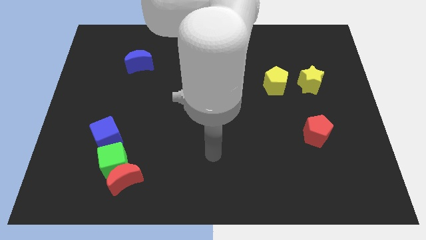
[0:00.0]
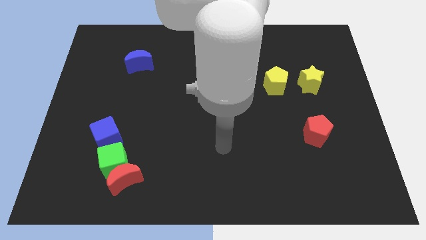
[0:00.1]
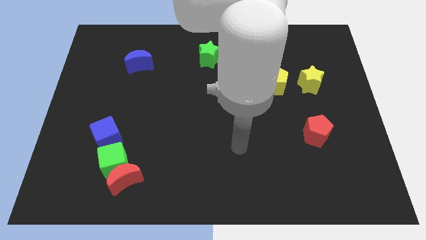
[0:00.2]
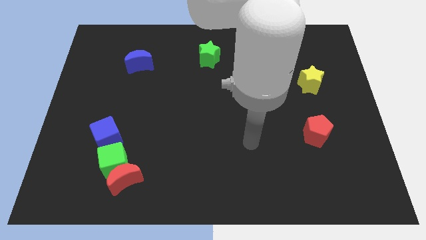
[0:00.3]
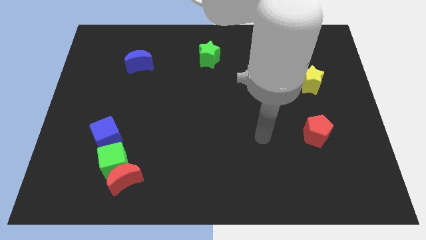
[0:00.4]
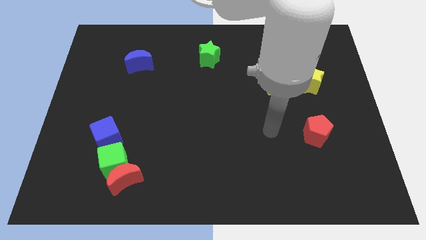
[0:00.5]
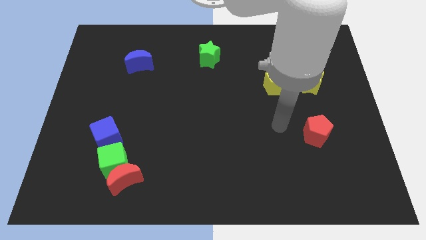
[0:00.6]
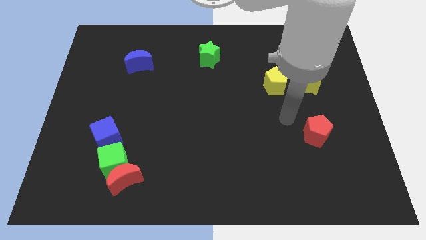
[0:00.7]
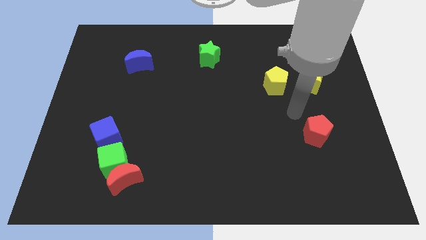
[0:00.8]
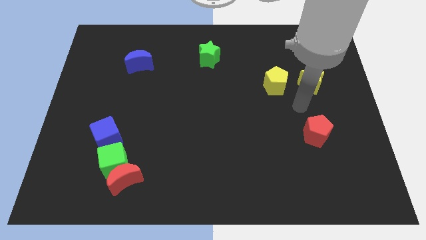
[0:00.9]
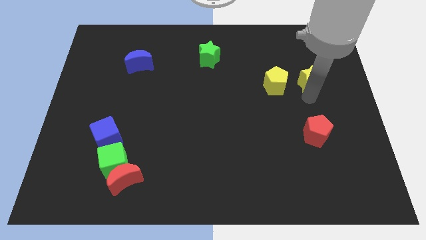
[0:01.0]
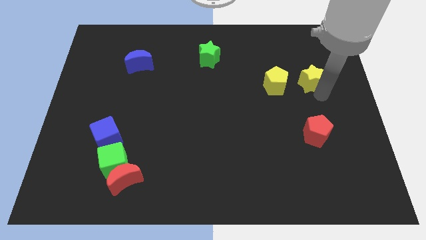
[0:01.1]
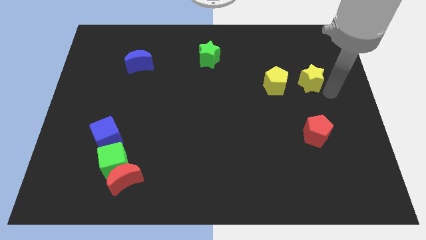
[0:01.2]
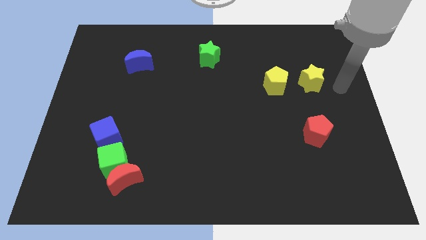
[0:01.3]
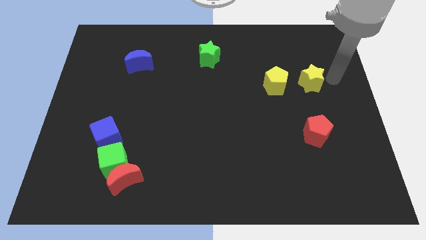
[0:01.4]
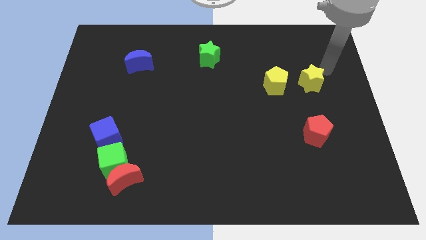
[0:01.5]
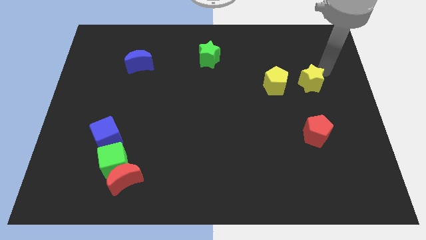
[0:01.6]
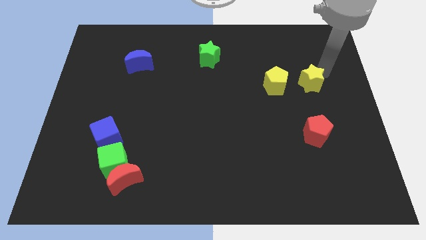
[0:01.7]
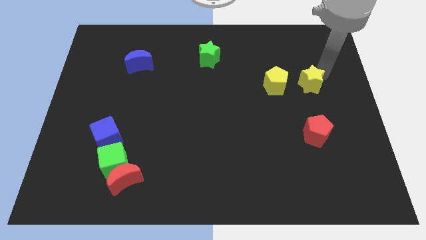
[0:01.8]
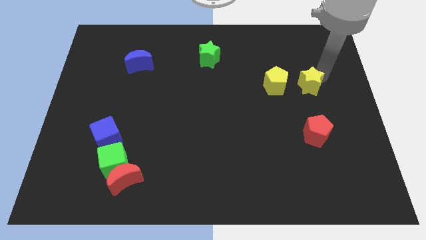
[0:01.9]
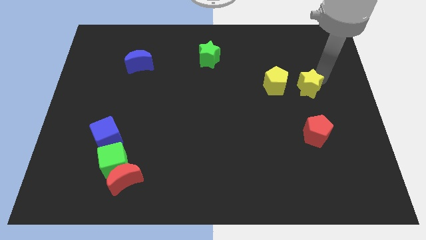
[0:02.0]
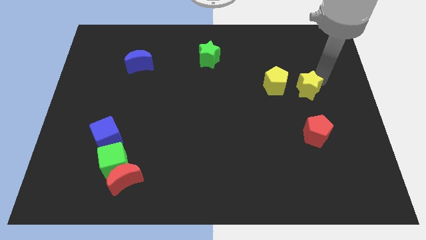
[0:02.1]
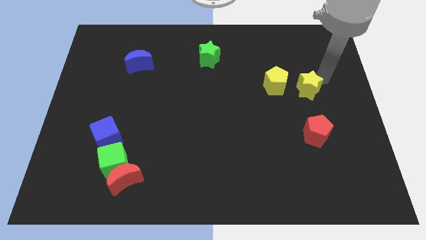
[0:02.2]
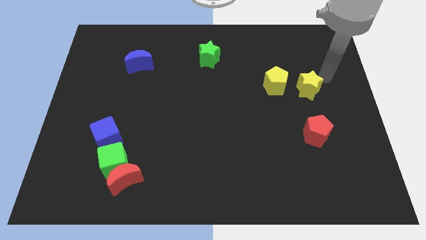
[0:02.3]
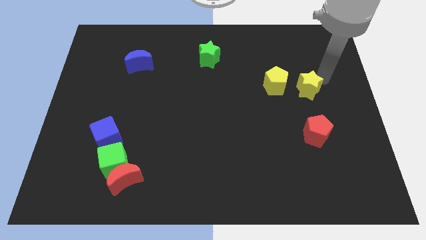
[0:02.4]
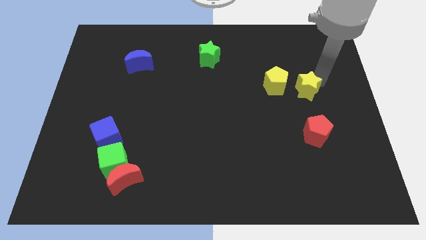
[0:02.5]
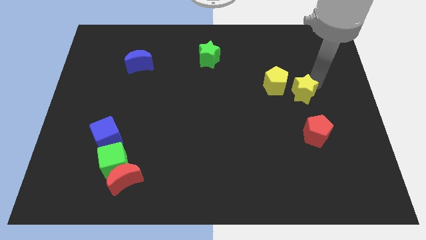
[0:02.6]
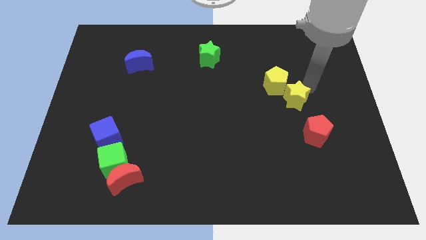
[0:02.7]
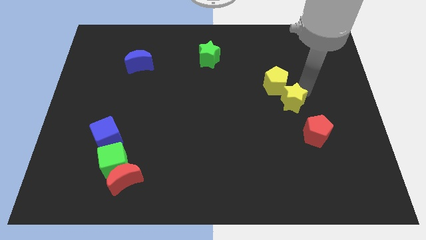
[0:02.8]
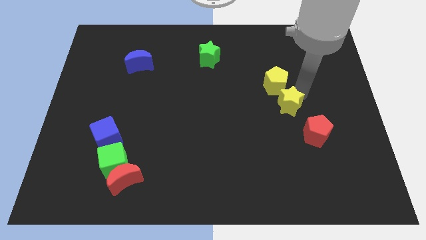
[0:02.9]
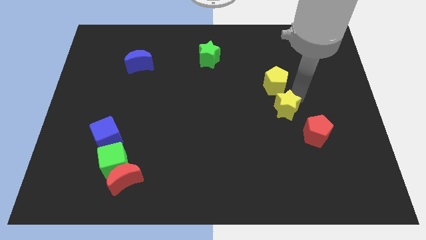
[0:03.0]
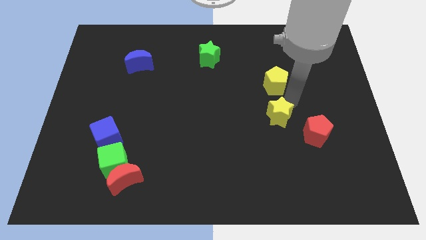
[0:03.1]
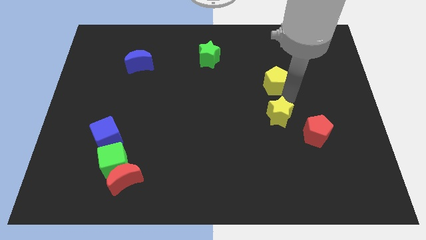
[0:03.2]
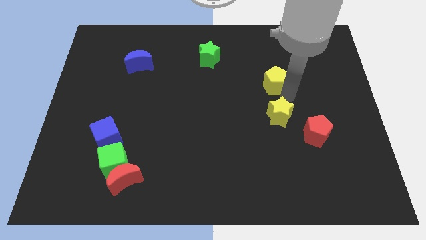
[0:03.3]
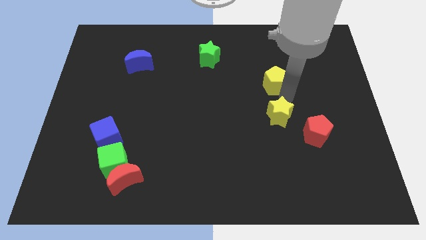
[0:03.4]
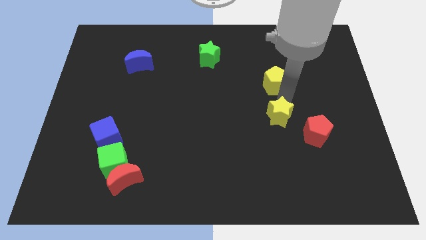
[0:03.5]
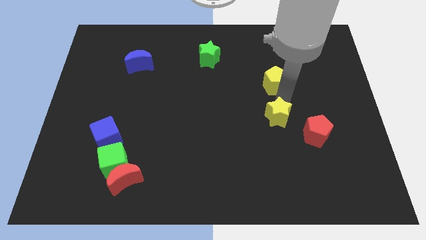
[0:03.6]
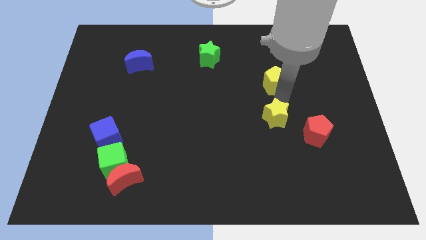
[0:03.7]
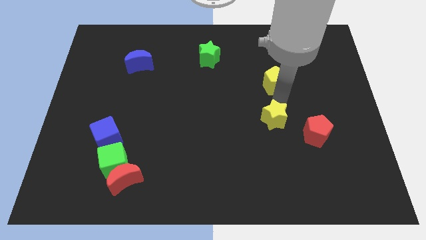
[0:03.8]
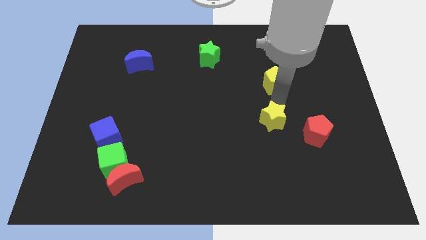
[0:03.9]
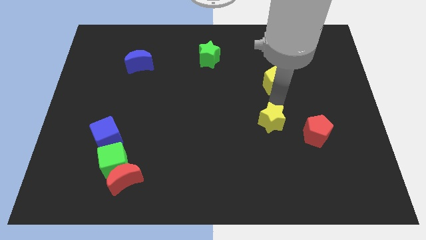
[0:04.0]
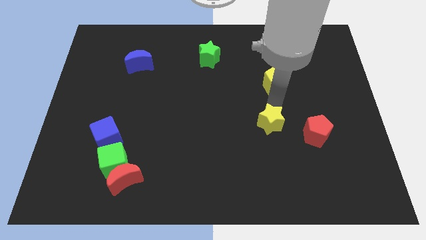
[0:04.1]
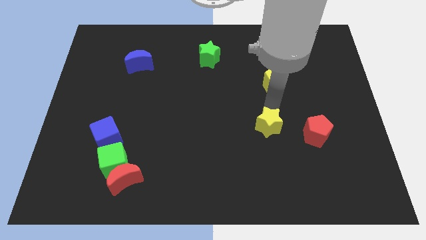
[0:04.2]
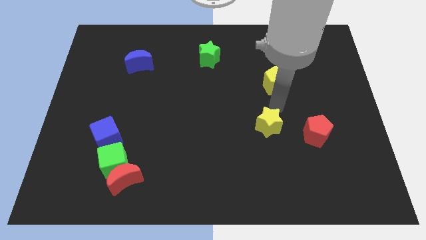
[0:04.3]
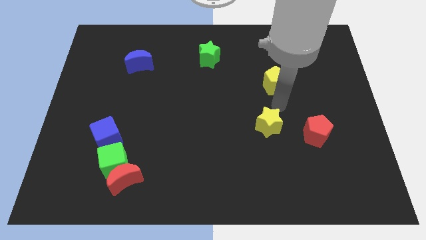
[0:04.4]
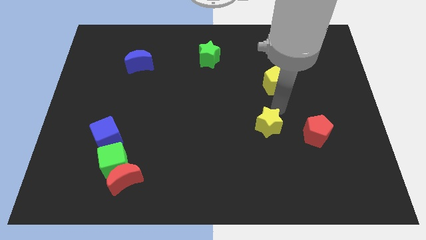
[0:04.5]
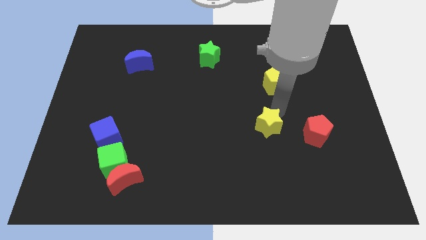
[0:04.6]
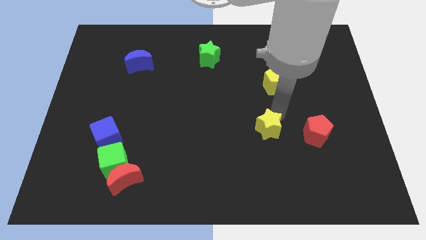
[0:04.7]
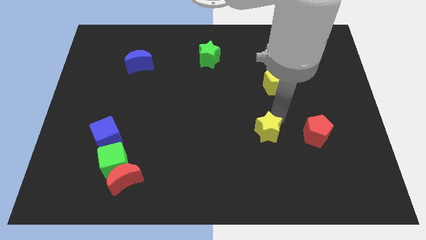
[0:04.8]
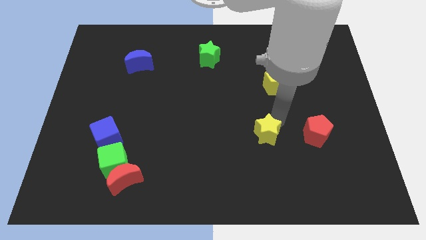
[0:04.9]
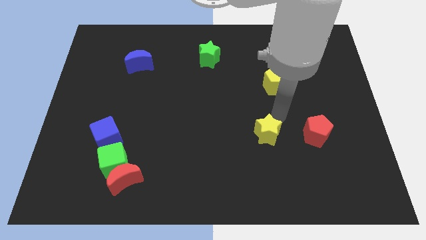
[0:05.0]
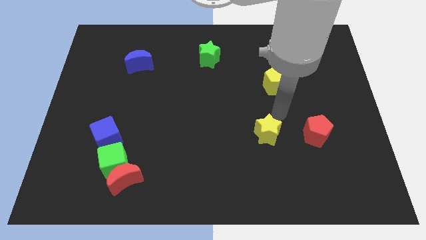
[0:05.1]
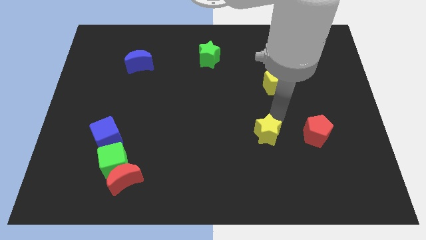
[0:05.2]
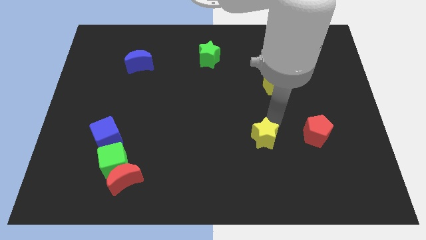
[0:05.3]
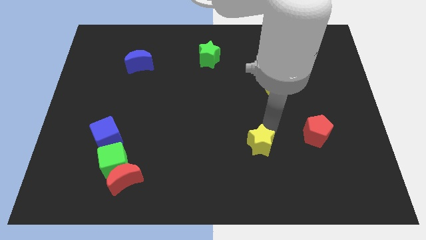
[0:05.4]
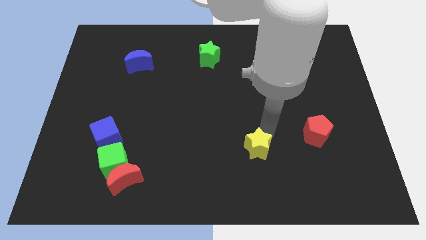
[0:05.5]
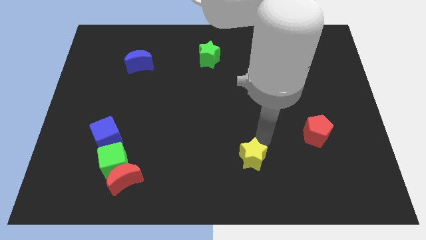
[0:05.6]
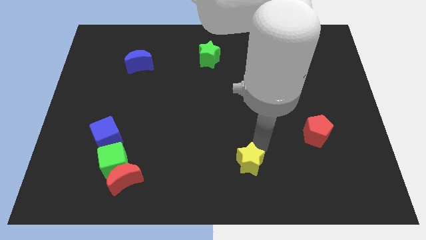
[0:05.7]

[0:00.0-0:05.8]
push the yellow star to the bottom side

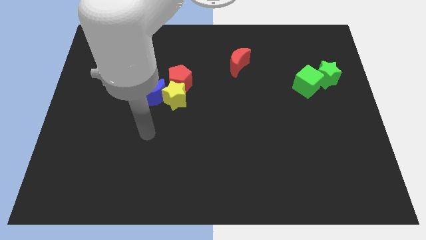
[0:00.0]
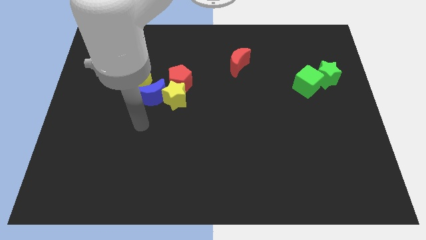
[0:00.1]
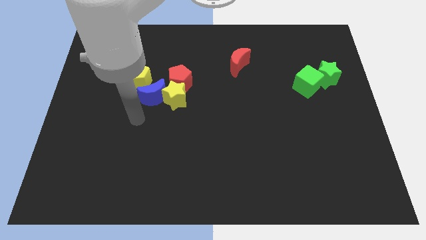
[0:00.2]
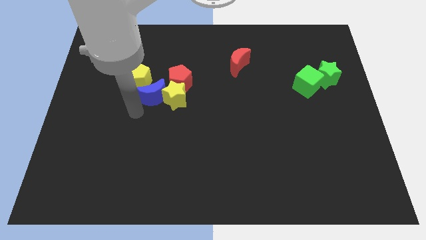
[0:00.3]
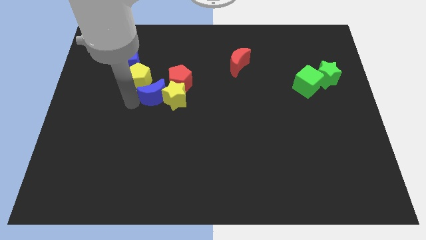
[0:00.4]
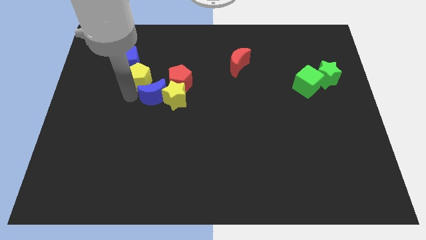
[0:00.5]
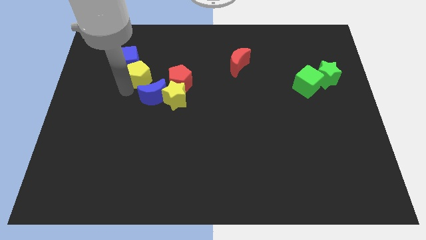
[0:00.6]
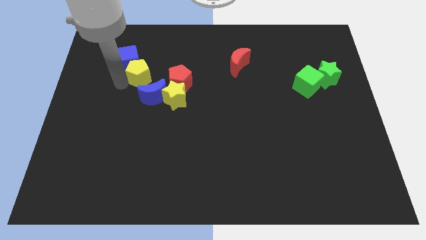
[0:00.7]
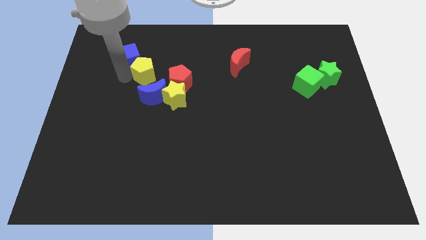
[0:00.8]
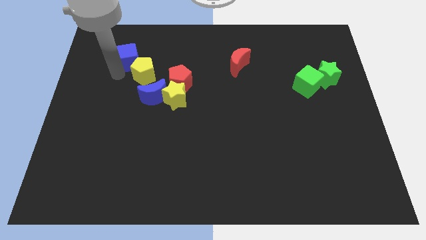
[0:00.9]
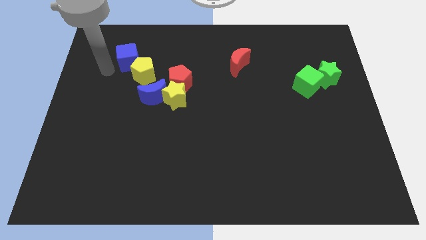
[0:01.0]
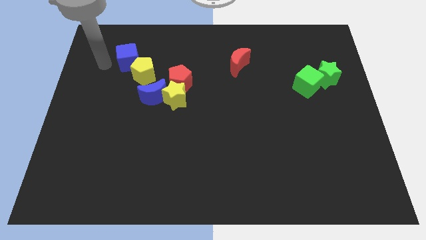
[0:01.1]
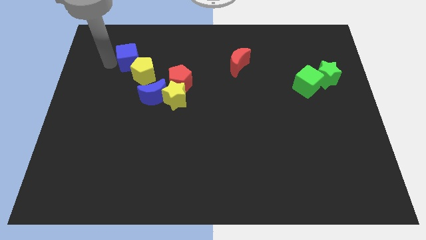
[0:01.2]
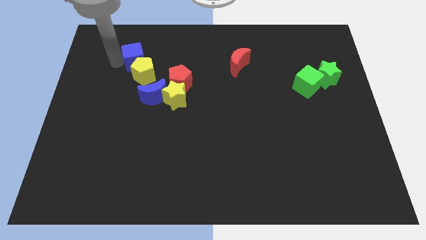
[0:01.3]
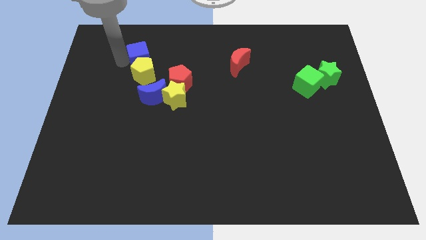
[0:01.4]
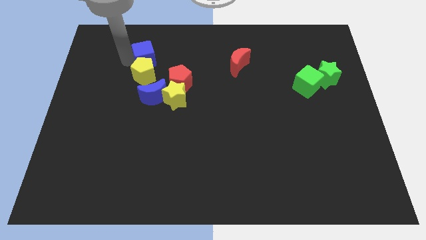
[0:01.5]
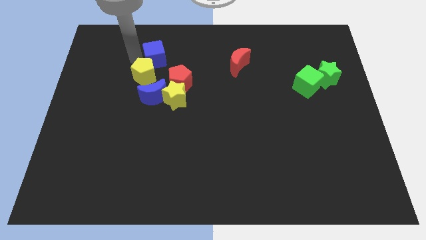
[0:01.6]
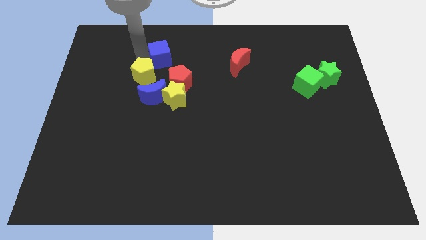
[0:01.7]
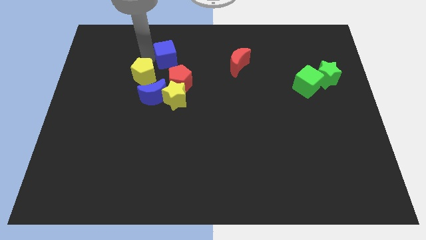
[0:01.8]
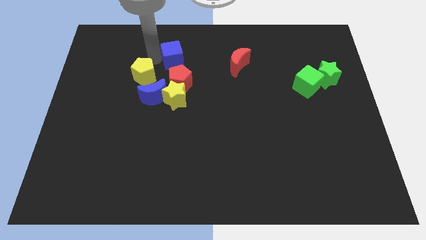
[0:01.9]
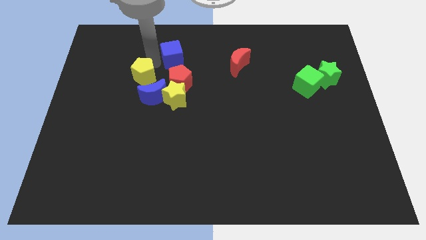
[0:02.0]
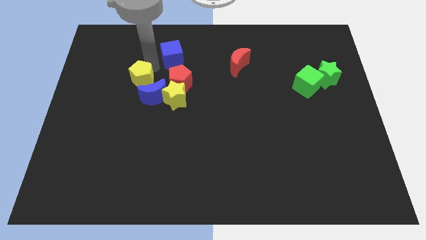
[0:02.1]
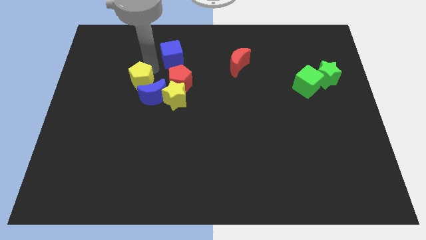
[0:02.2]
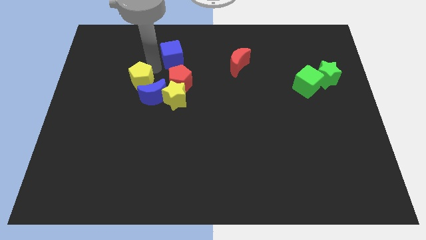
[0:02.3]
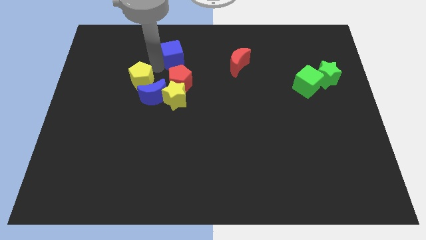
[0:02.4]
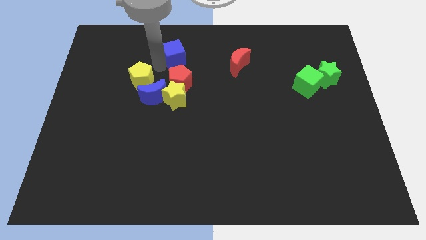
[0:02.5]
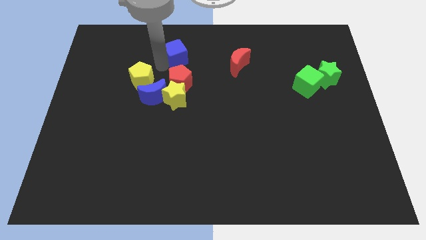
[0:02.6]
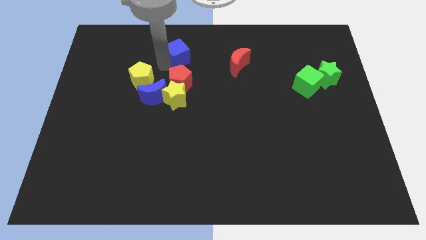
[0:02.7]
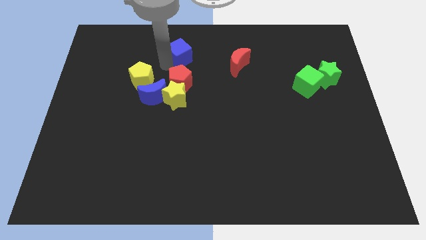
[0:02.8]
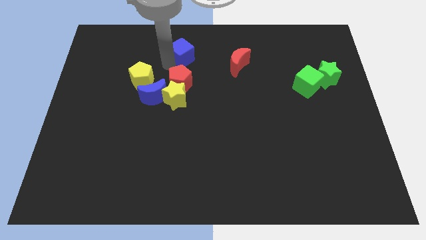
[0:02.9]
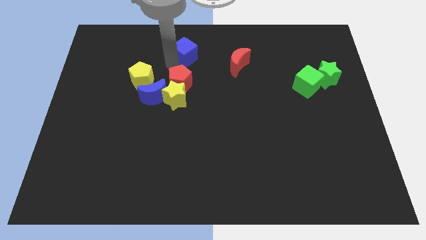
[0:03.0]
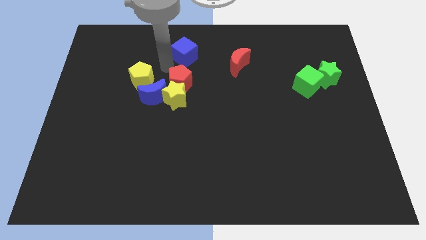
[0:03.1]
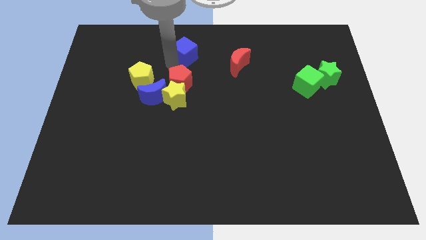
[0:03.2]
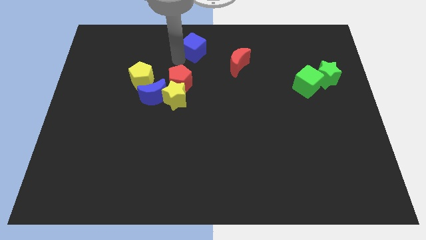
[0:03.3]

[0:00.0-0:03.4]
move the blue cube to the towards your base
